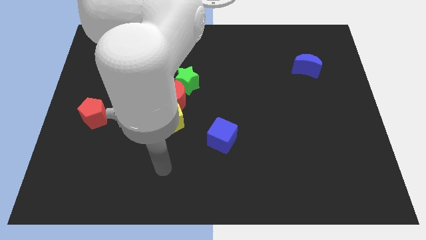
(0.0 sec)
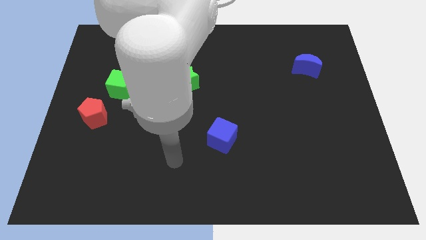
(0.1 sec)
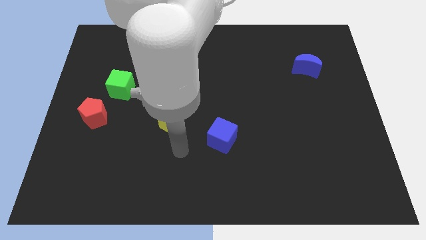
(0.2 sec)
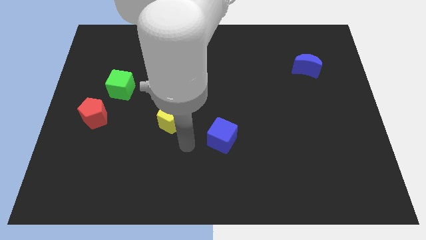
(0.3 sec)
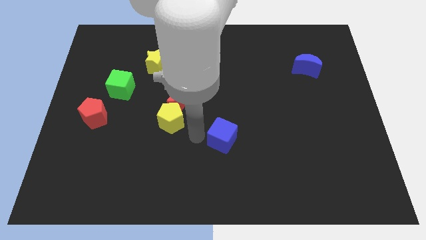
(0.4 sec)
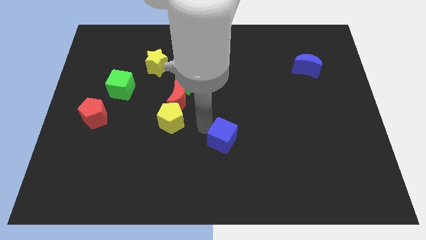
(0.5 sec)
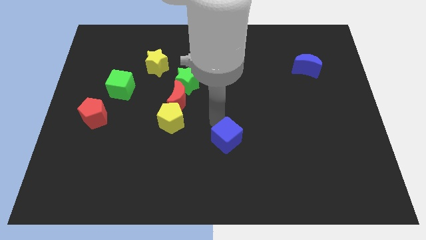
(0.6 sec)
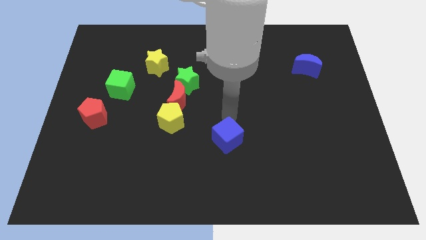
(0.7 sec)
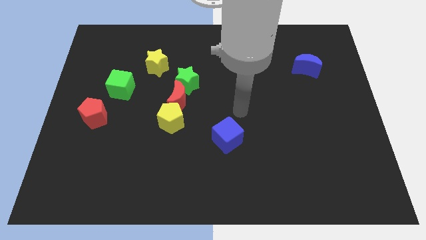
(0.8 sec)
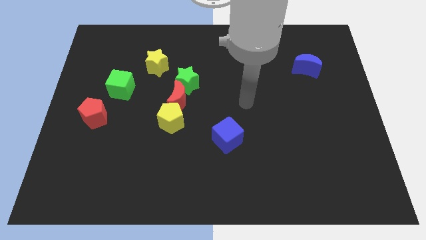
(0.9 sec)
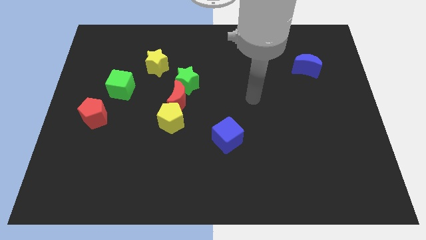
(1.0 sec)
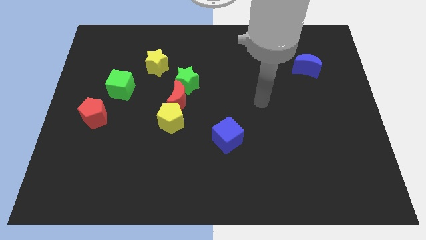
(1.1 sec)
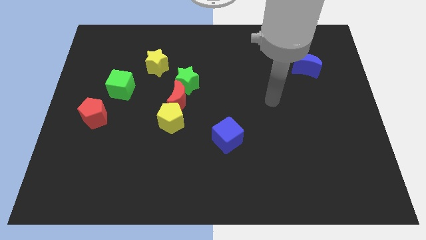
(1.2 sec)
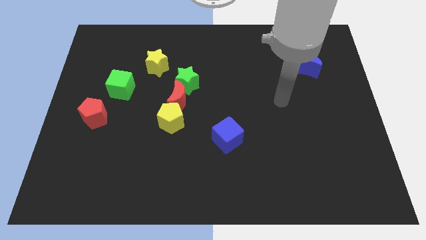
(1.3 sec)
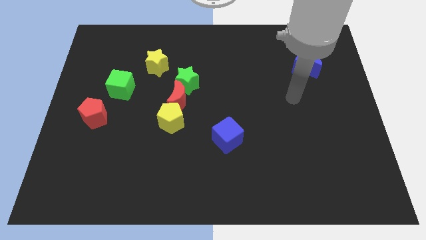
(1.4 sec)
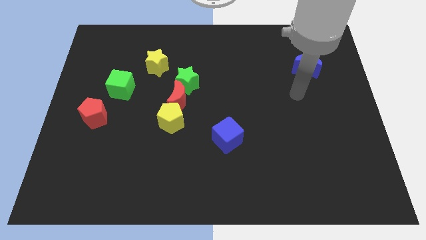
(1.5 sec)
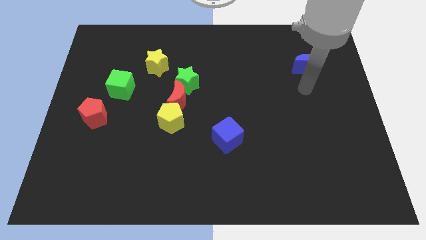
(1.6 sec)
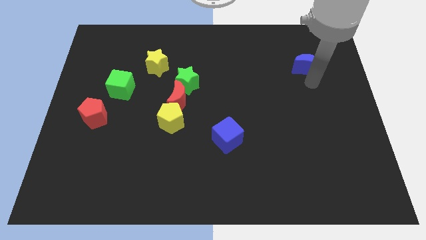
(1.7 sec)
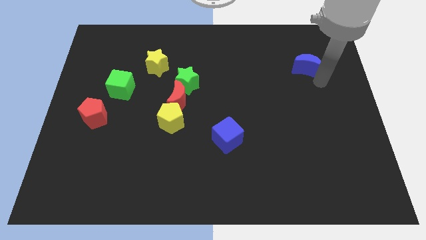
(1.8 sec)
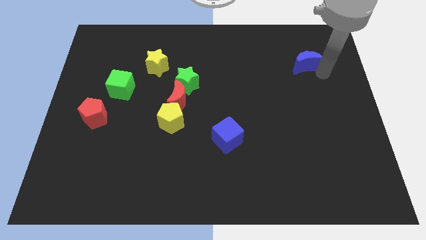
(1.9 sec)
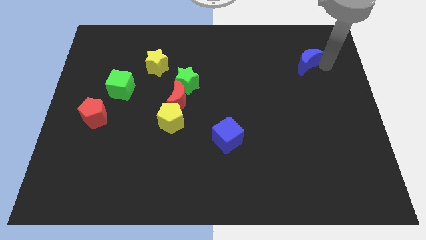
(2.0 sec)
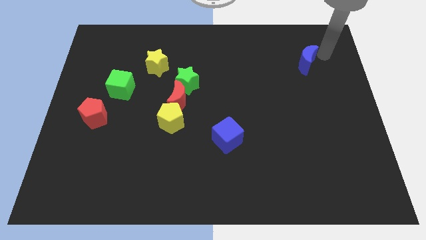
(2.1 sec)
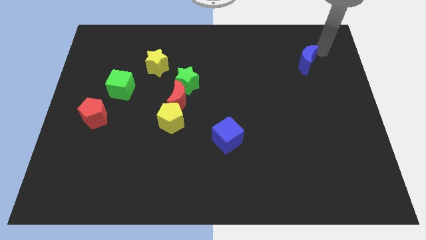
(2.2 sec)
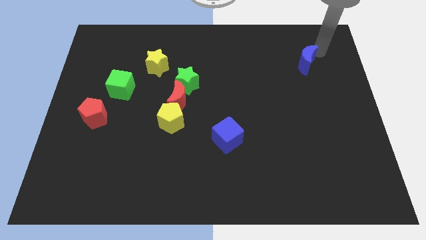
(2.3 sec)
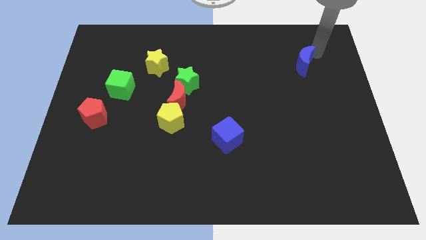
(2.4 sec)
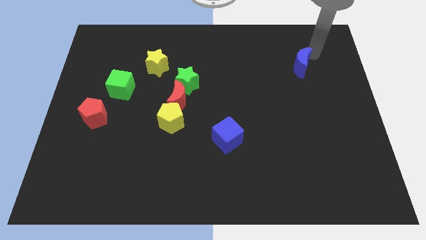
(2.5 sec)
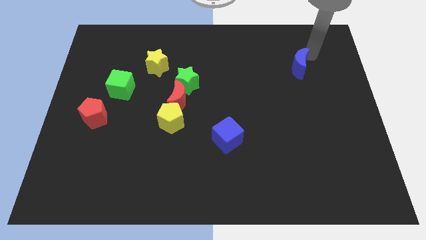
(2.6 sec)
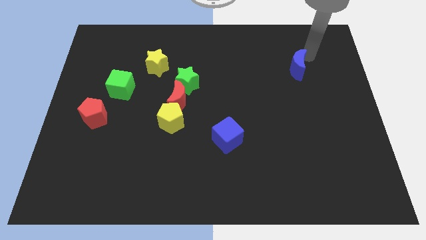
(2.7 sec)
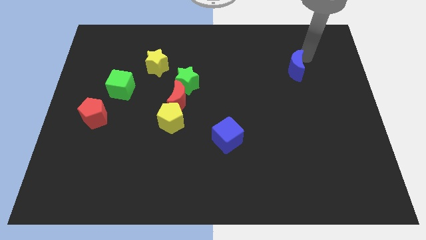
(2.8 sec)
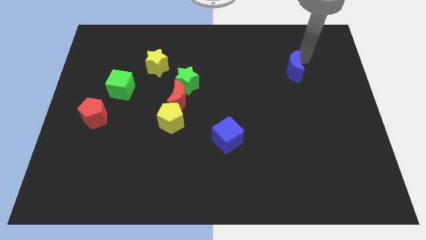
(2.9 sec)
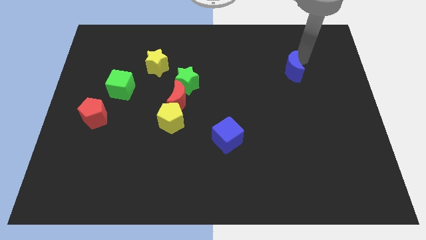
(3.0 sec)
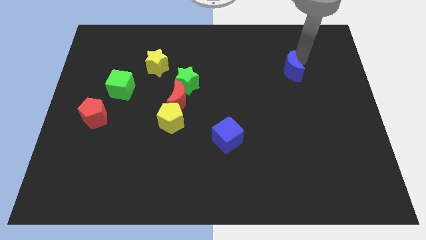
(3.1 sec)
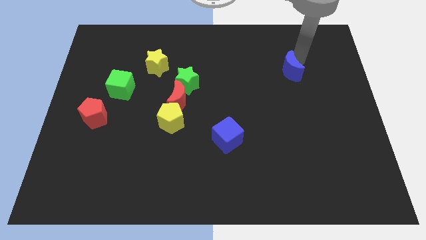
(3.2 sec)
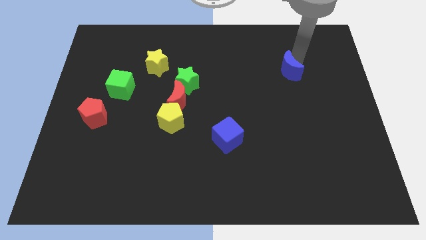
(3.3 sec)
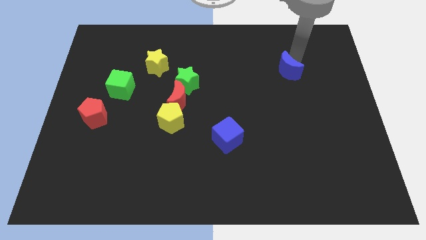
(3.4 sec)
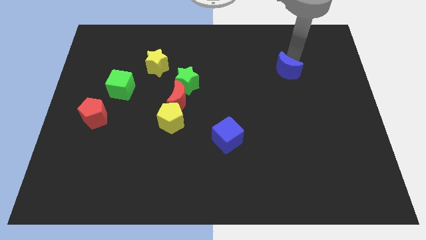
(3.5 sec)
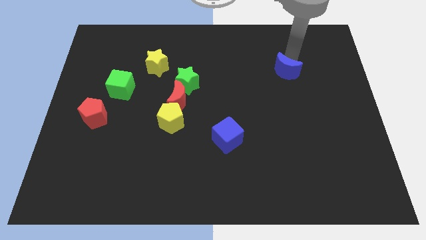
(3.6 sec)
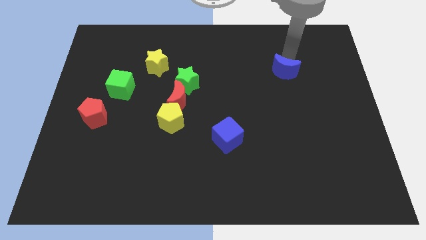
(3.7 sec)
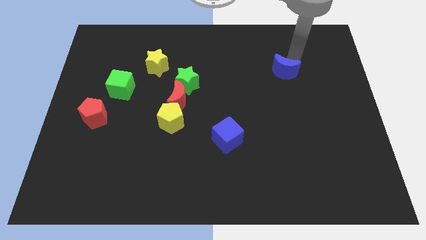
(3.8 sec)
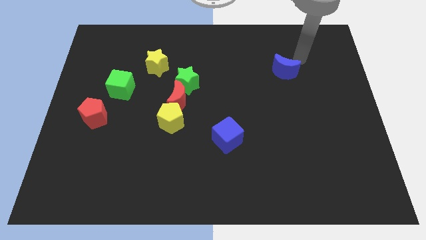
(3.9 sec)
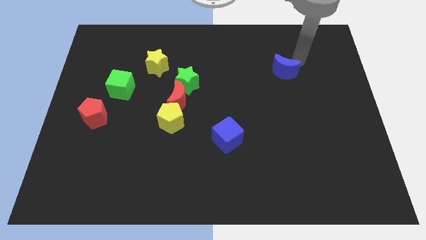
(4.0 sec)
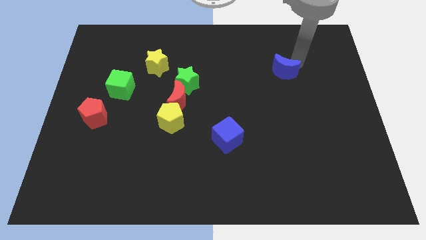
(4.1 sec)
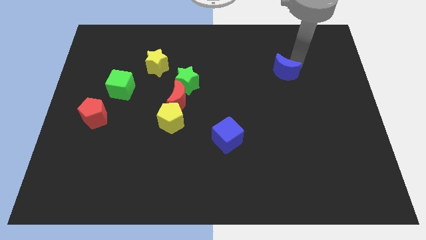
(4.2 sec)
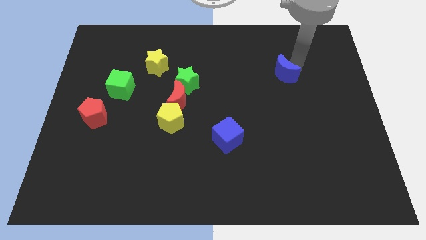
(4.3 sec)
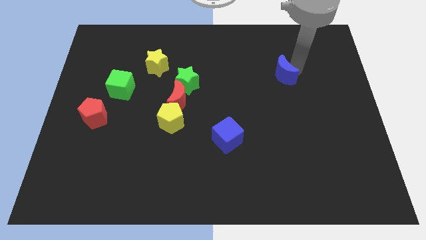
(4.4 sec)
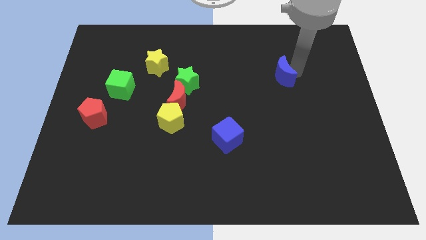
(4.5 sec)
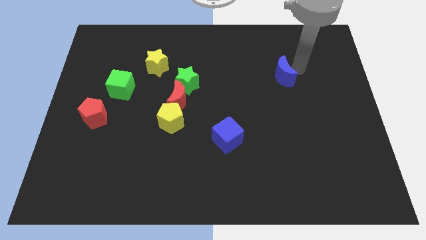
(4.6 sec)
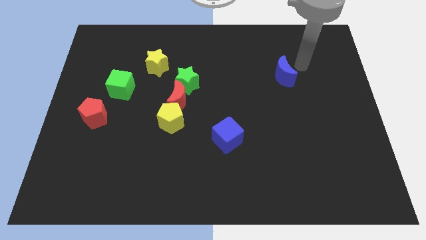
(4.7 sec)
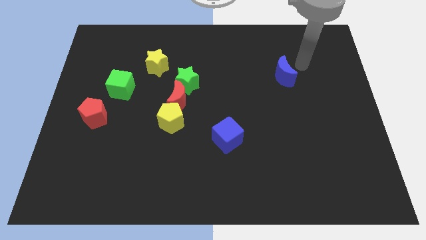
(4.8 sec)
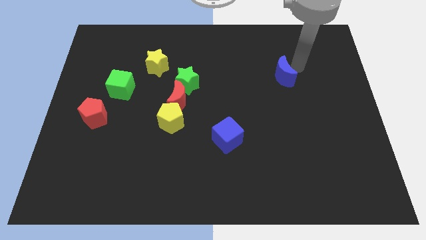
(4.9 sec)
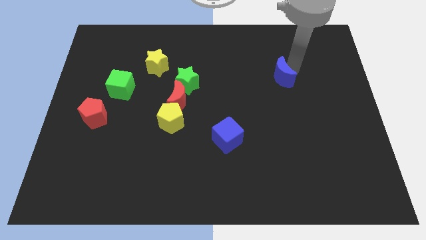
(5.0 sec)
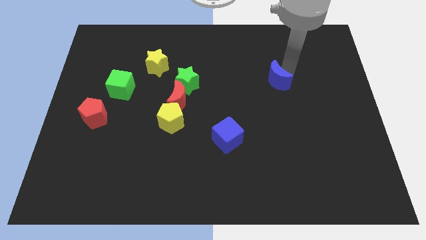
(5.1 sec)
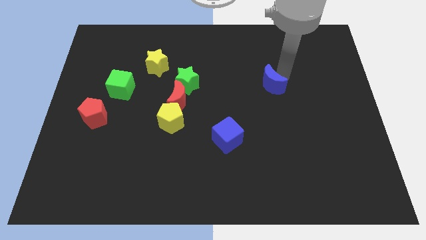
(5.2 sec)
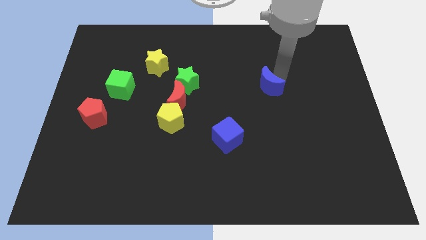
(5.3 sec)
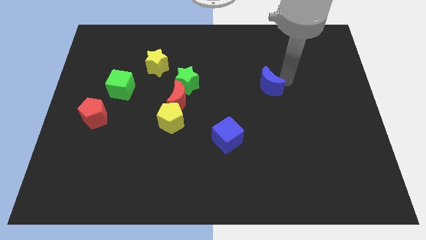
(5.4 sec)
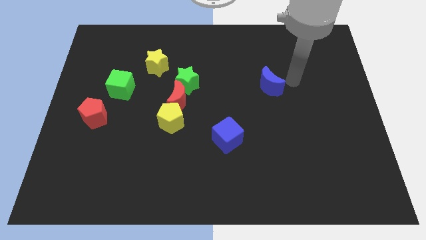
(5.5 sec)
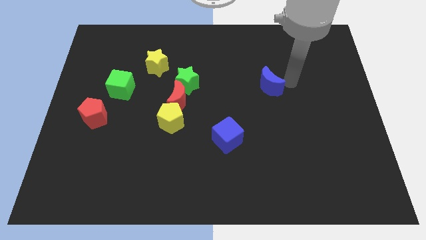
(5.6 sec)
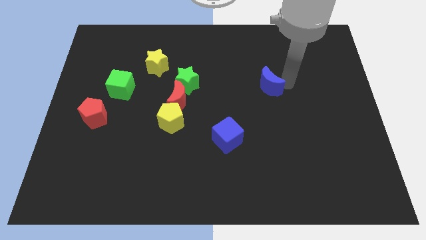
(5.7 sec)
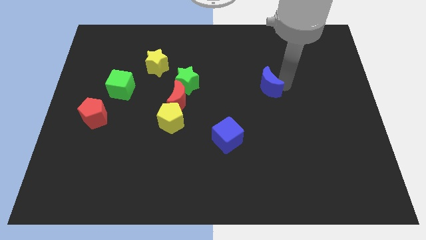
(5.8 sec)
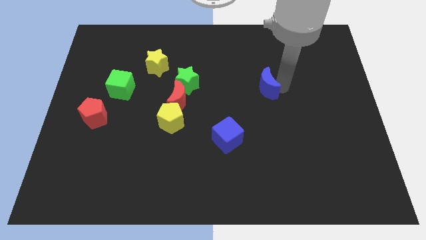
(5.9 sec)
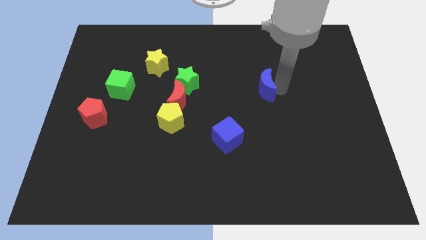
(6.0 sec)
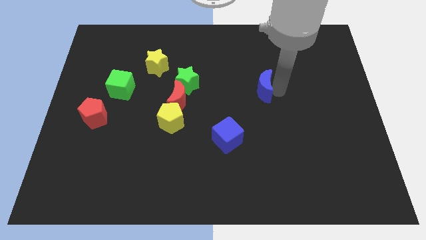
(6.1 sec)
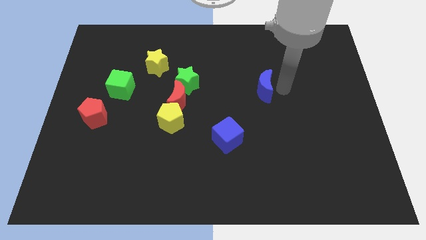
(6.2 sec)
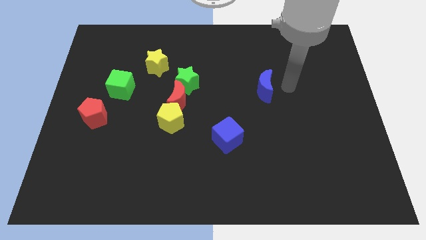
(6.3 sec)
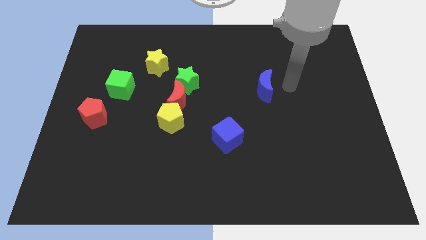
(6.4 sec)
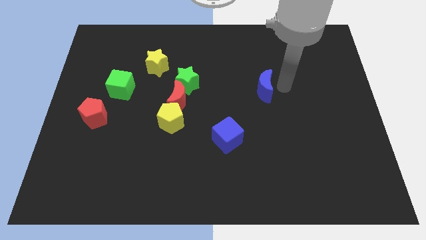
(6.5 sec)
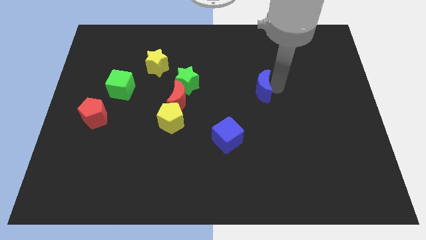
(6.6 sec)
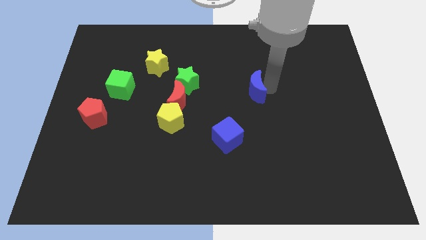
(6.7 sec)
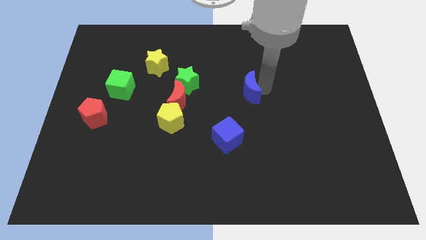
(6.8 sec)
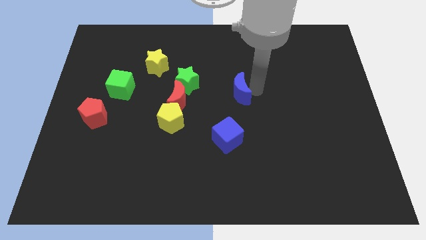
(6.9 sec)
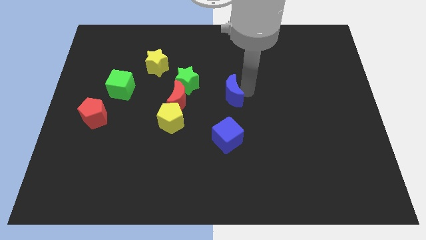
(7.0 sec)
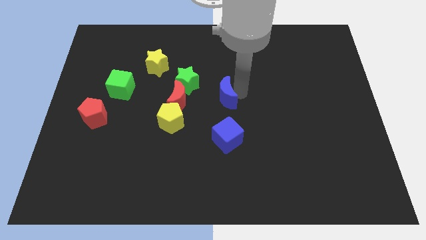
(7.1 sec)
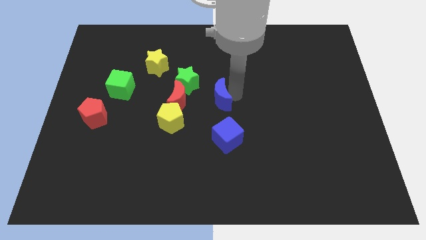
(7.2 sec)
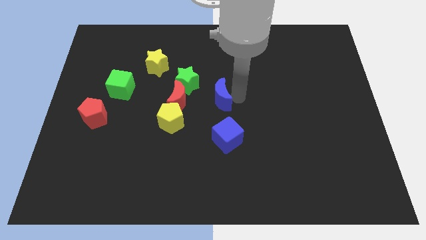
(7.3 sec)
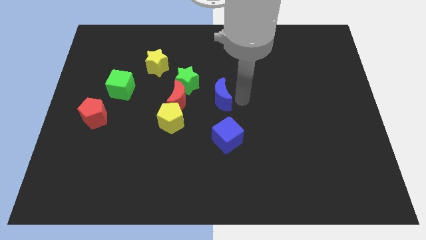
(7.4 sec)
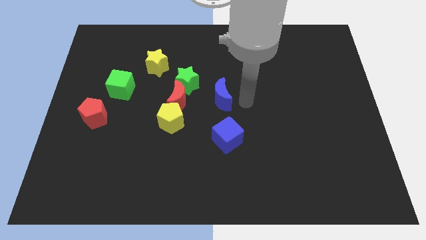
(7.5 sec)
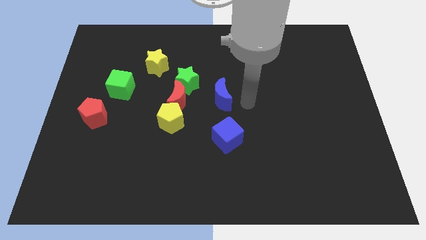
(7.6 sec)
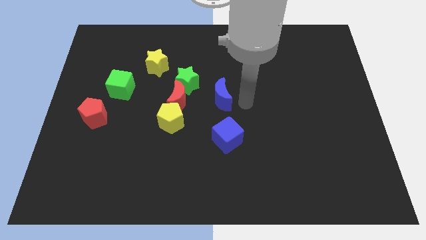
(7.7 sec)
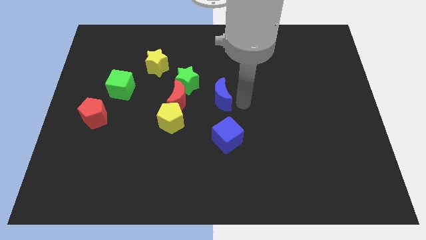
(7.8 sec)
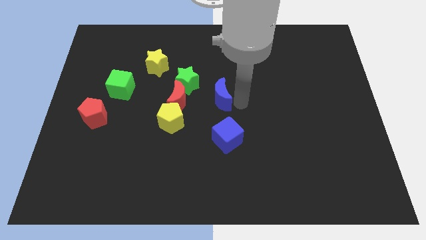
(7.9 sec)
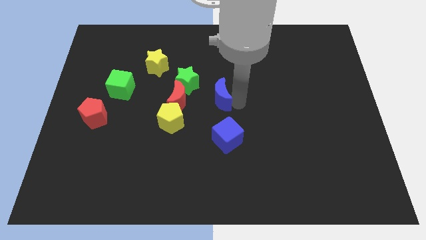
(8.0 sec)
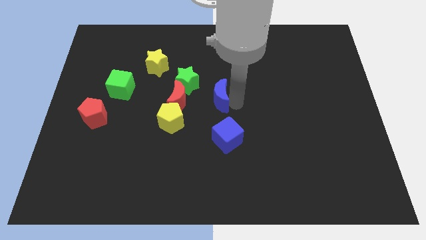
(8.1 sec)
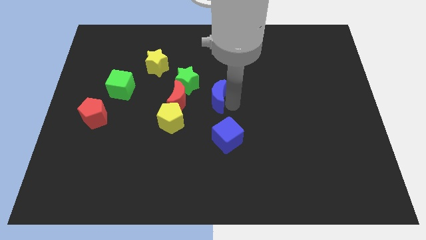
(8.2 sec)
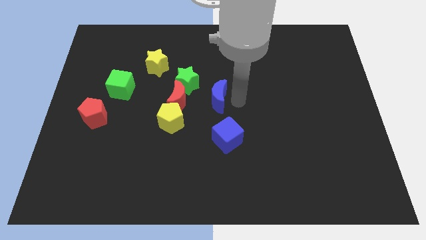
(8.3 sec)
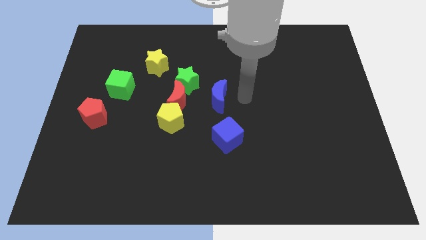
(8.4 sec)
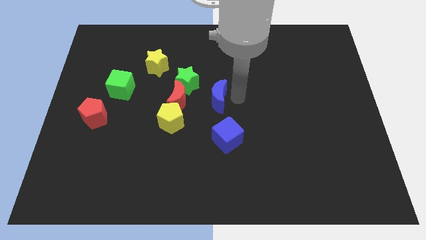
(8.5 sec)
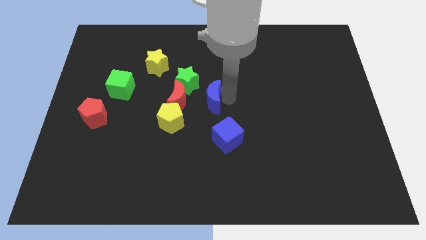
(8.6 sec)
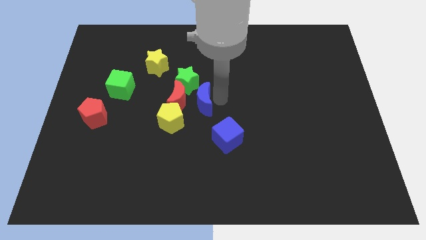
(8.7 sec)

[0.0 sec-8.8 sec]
slide the blue moon close to the red moon
